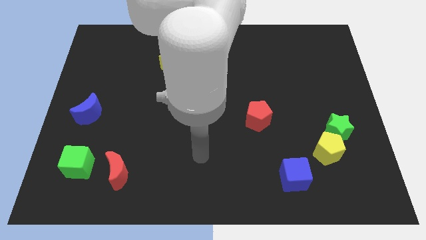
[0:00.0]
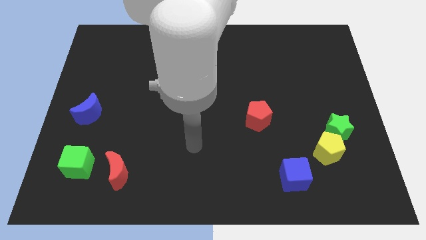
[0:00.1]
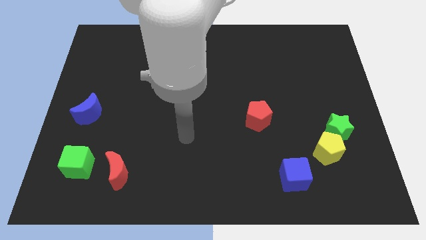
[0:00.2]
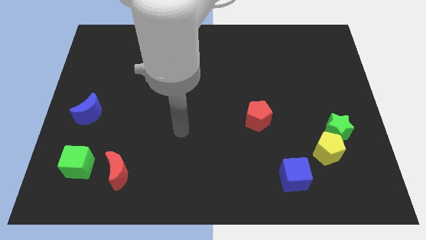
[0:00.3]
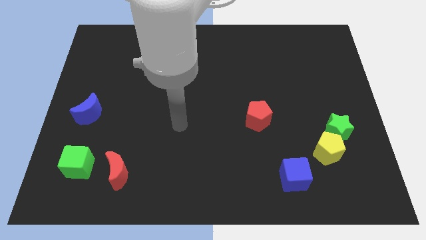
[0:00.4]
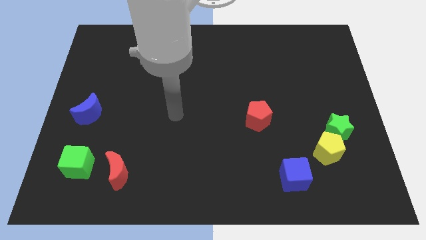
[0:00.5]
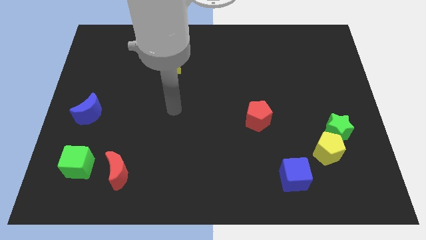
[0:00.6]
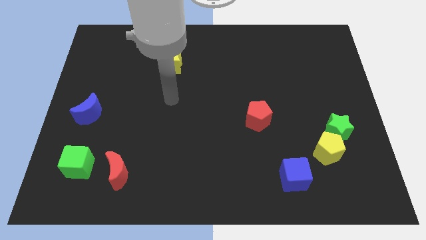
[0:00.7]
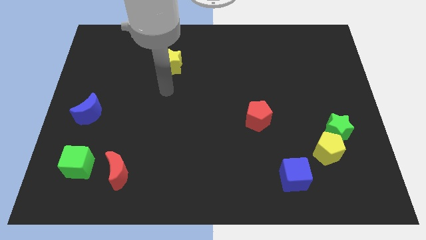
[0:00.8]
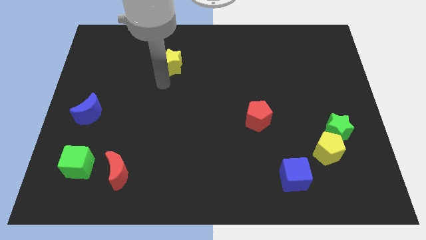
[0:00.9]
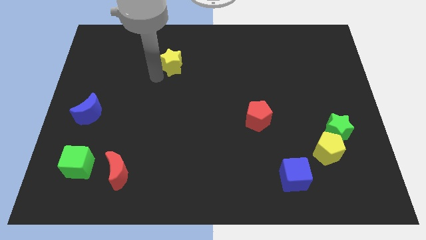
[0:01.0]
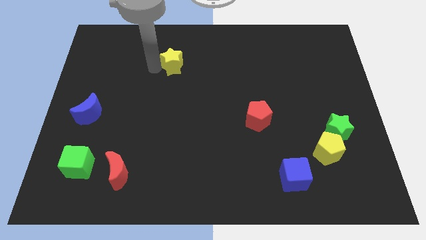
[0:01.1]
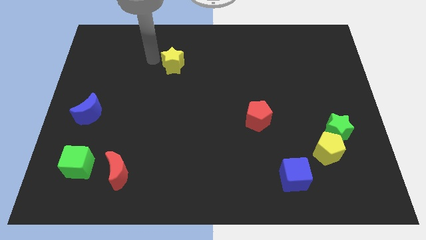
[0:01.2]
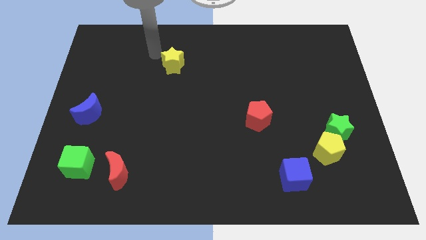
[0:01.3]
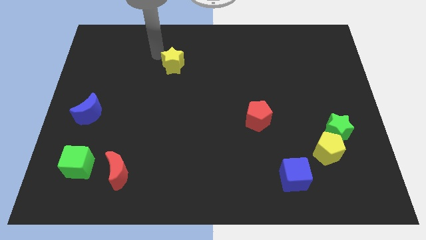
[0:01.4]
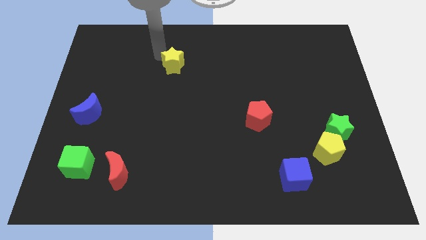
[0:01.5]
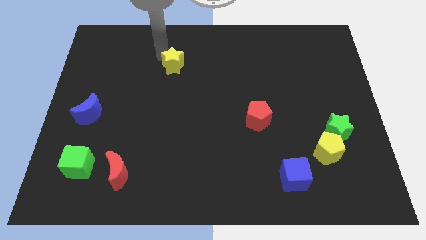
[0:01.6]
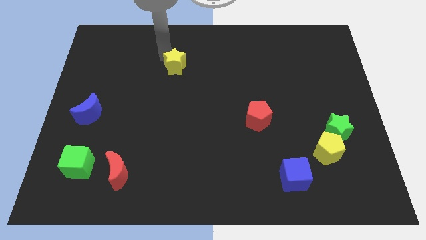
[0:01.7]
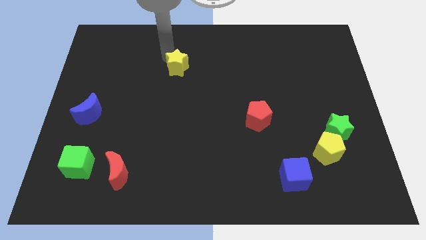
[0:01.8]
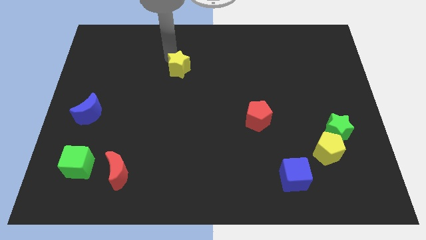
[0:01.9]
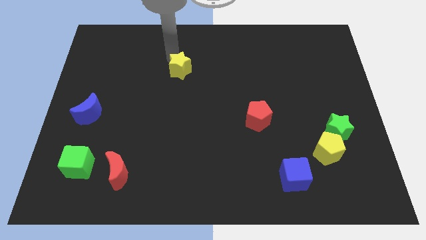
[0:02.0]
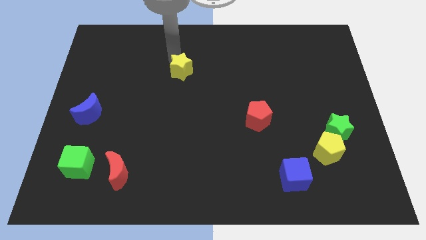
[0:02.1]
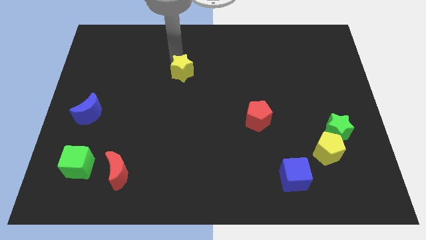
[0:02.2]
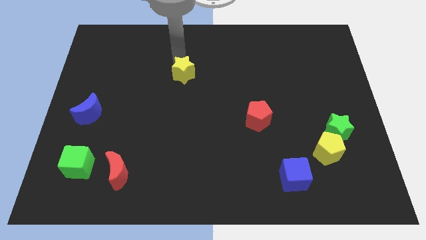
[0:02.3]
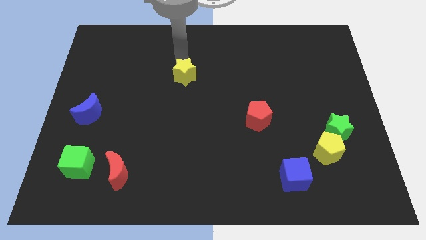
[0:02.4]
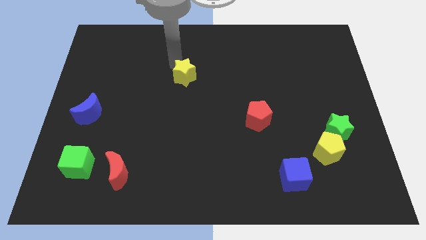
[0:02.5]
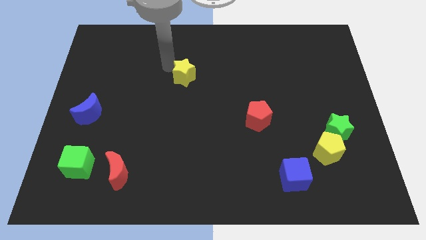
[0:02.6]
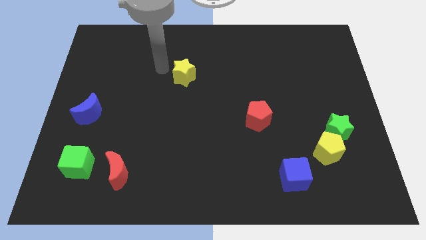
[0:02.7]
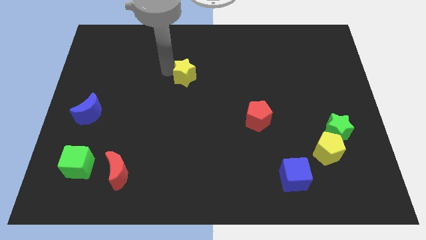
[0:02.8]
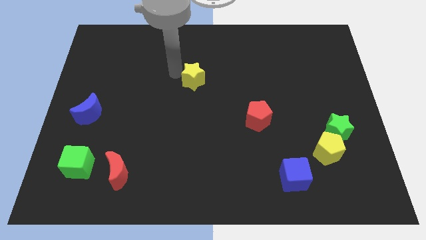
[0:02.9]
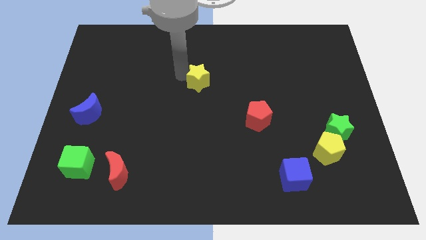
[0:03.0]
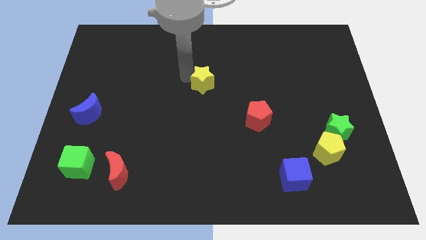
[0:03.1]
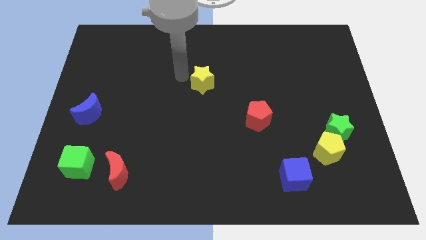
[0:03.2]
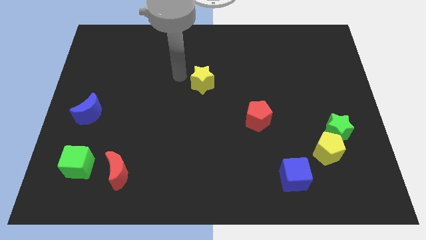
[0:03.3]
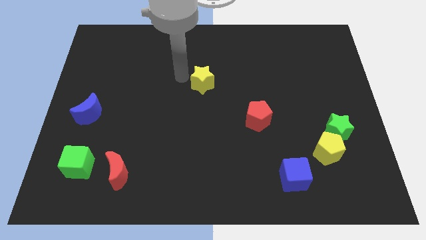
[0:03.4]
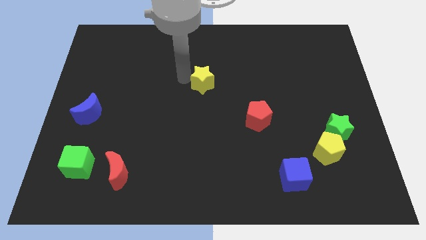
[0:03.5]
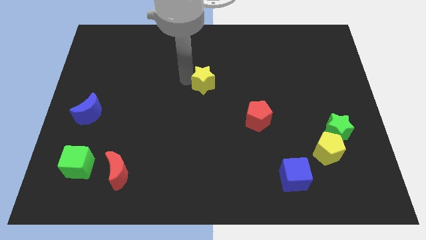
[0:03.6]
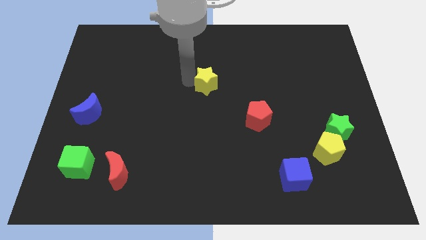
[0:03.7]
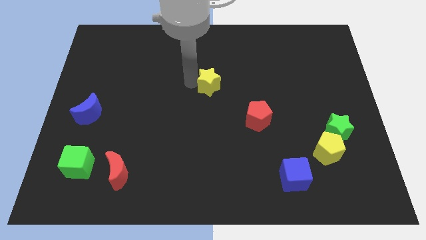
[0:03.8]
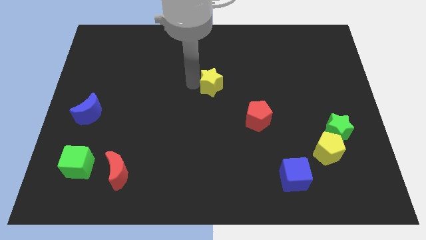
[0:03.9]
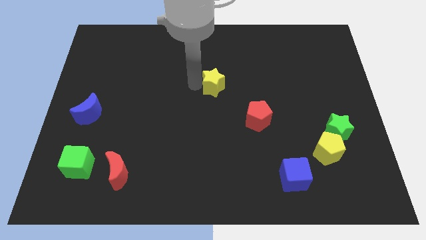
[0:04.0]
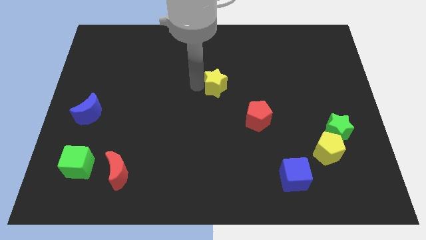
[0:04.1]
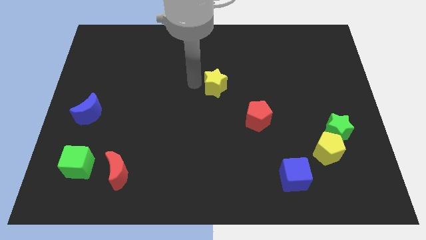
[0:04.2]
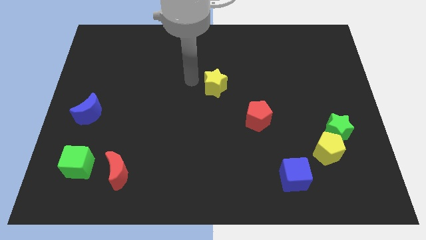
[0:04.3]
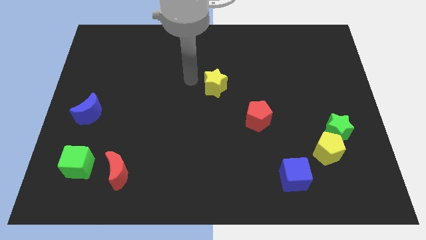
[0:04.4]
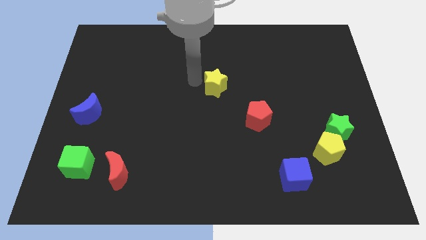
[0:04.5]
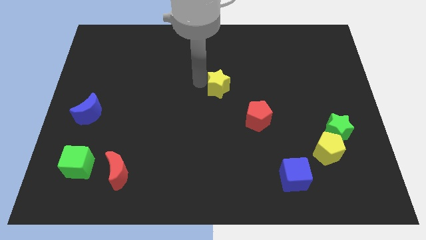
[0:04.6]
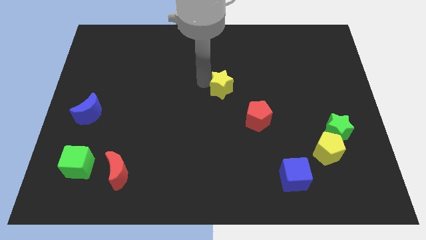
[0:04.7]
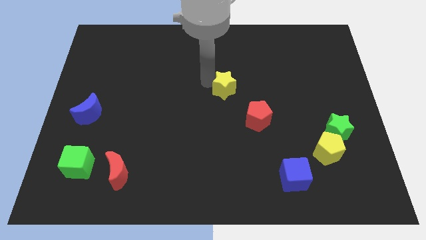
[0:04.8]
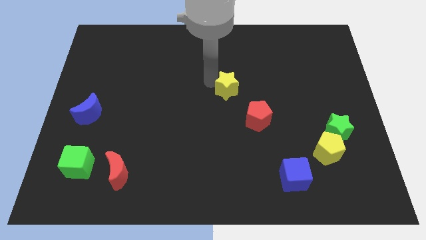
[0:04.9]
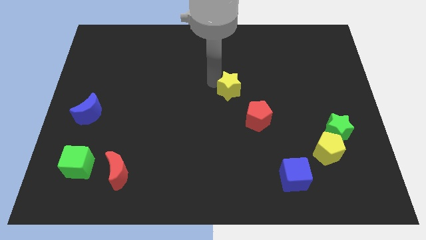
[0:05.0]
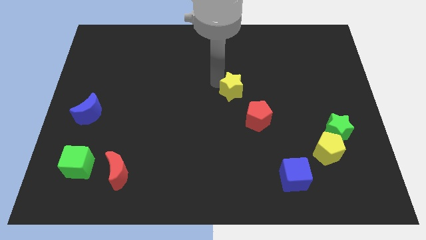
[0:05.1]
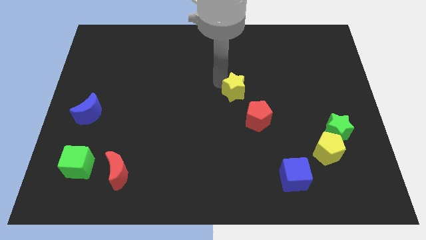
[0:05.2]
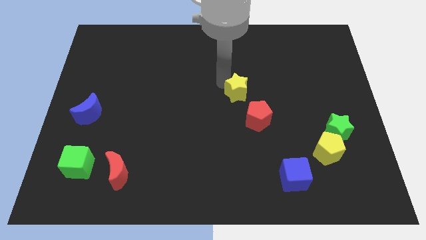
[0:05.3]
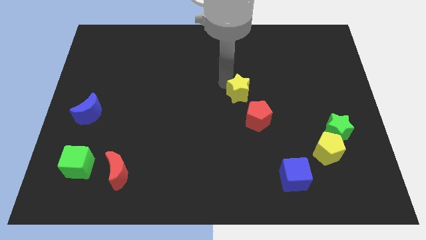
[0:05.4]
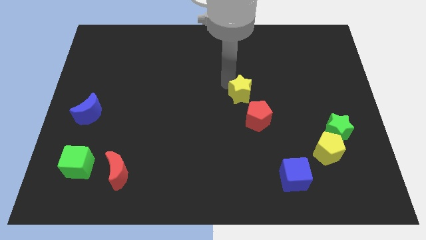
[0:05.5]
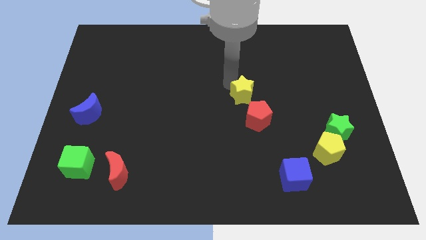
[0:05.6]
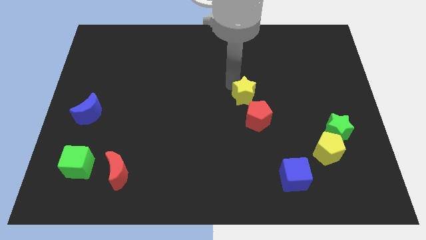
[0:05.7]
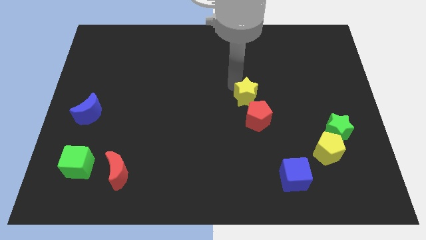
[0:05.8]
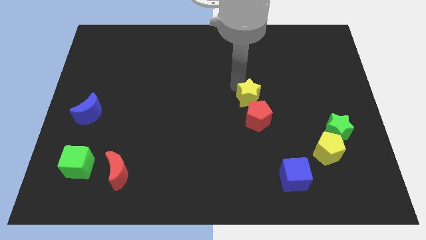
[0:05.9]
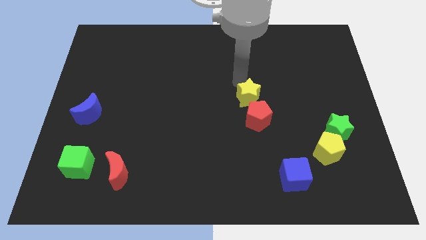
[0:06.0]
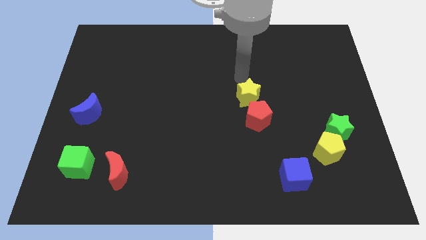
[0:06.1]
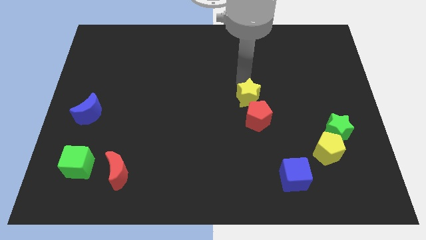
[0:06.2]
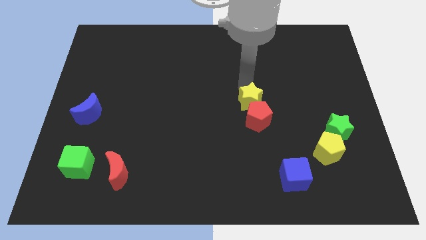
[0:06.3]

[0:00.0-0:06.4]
move the yellow star close to the red pentagon

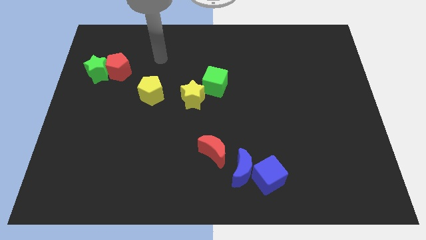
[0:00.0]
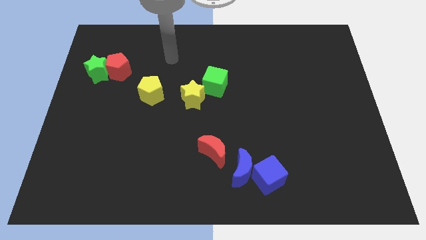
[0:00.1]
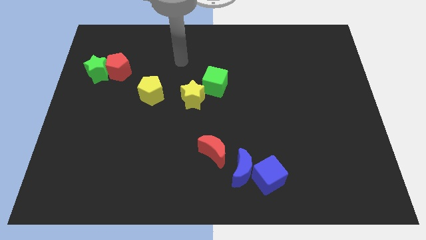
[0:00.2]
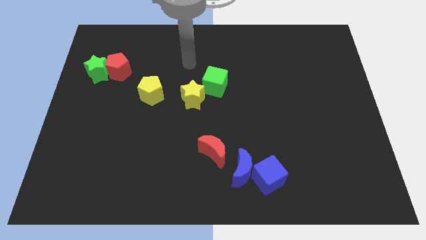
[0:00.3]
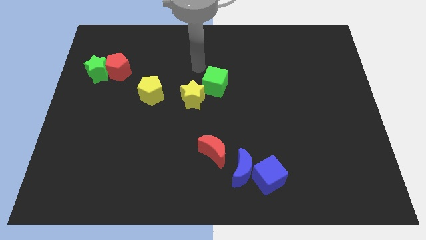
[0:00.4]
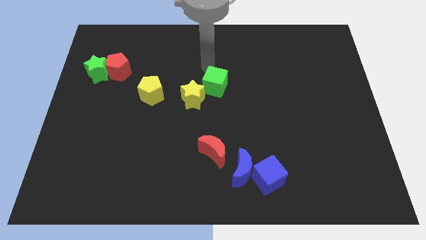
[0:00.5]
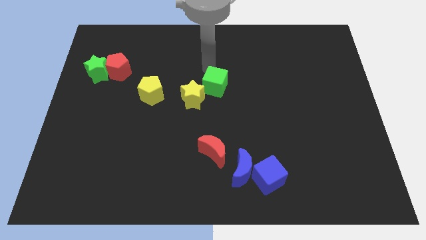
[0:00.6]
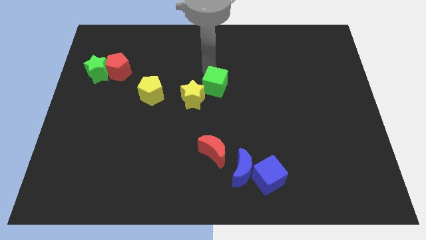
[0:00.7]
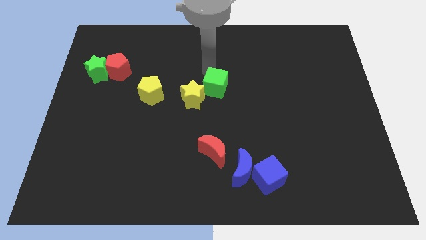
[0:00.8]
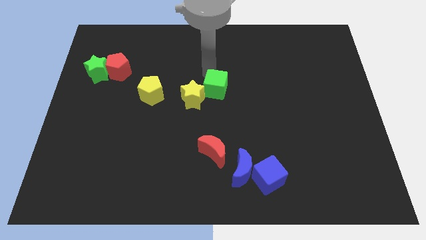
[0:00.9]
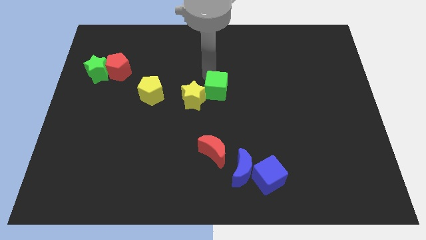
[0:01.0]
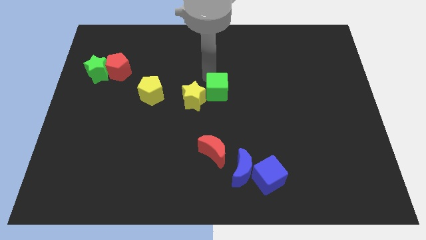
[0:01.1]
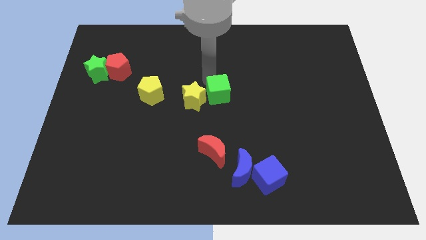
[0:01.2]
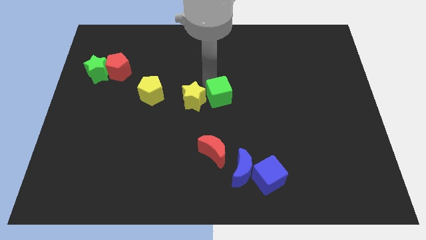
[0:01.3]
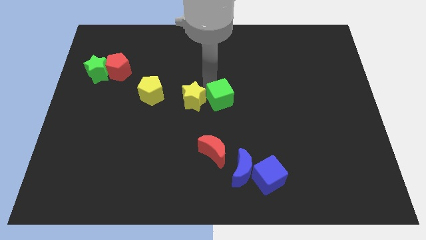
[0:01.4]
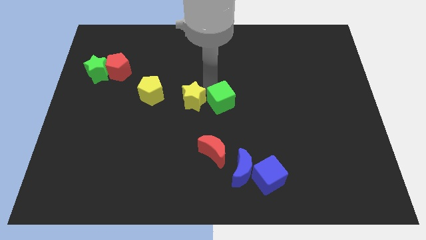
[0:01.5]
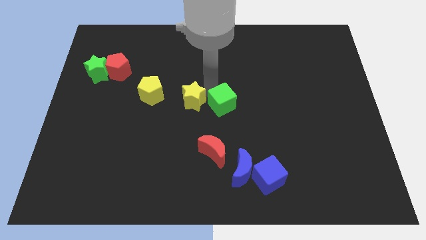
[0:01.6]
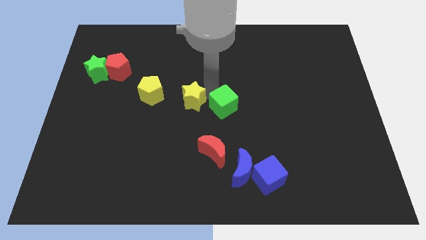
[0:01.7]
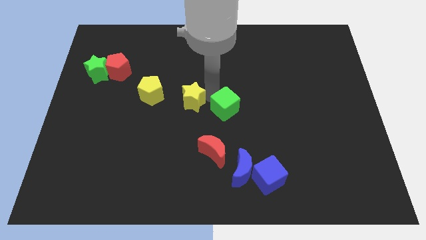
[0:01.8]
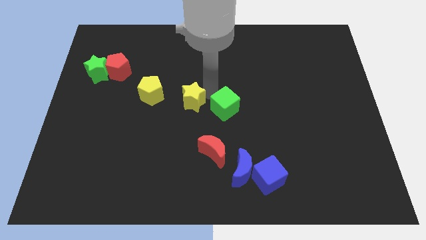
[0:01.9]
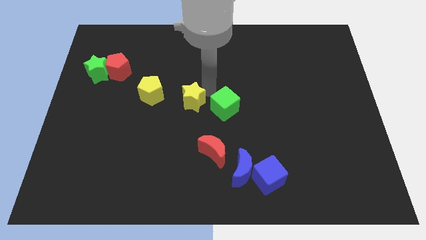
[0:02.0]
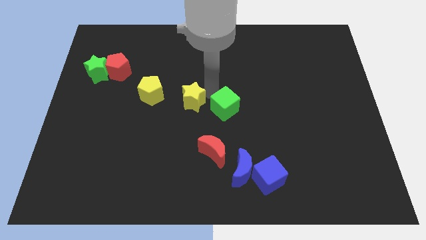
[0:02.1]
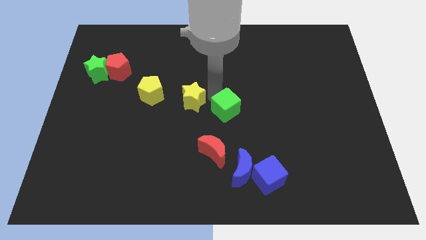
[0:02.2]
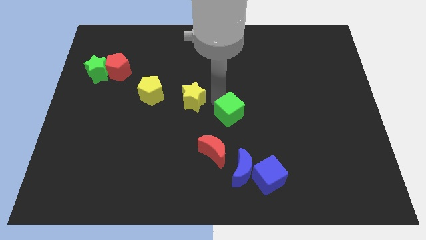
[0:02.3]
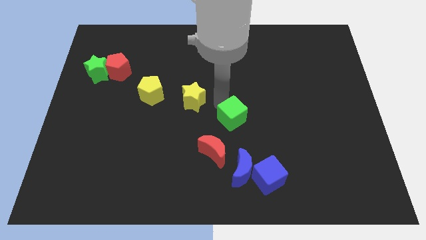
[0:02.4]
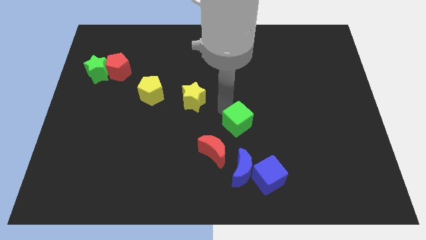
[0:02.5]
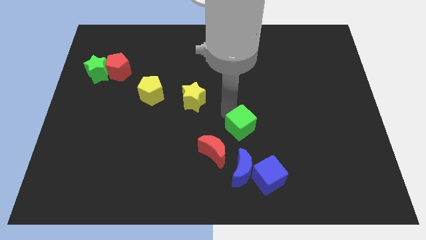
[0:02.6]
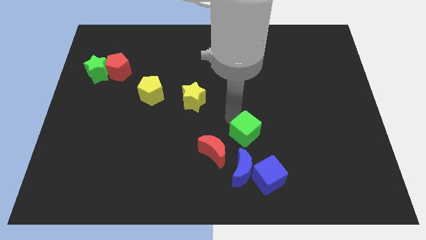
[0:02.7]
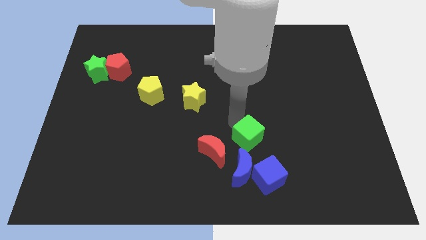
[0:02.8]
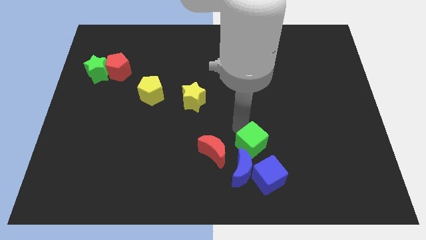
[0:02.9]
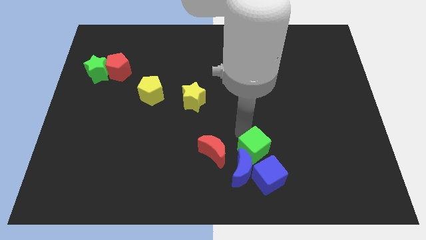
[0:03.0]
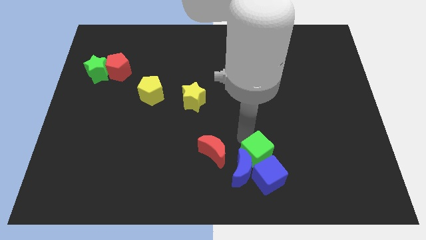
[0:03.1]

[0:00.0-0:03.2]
put the green cube towards the blue cube
